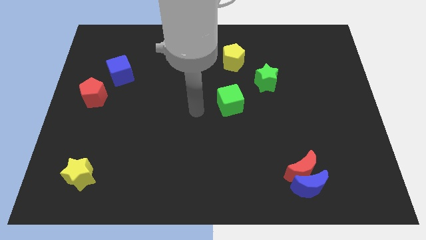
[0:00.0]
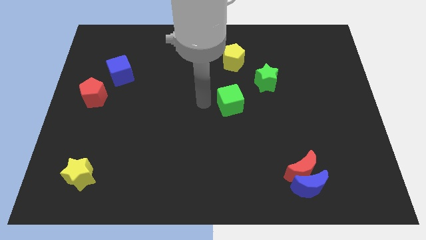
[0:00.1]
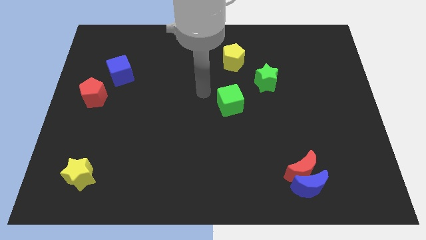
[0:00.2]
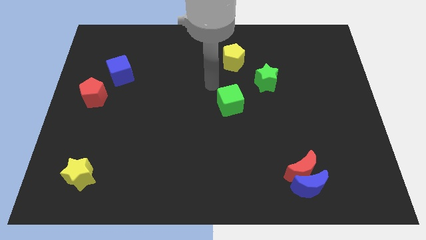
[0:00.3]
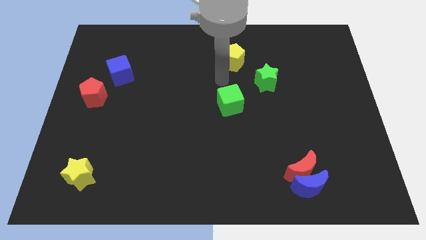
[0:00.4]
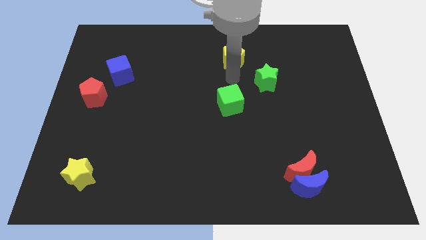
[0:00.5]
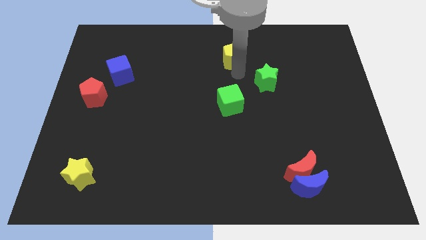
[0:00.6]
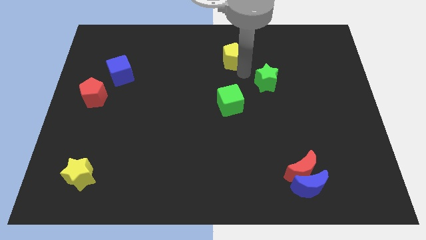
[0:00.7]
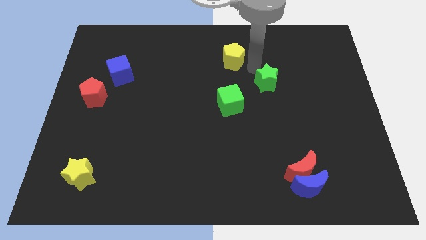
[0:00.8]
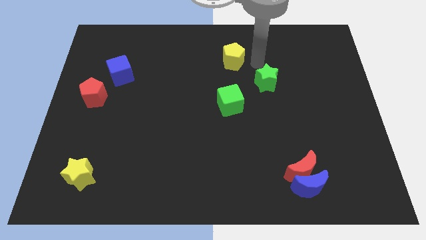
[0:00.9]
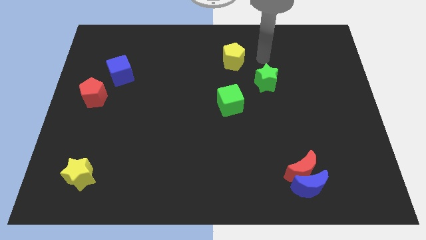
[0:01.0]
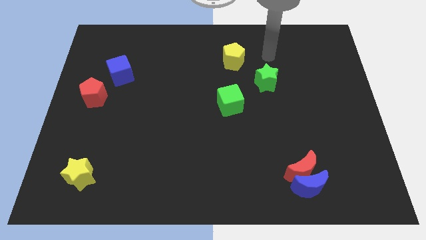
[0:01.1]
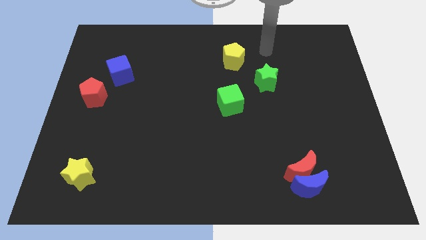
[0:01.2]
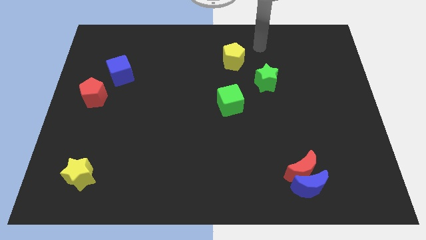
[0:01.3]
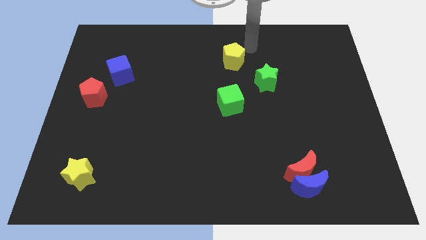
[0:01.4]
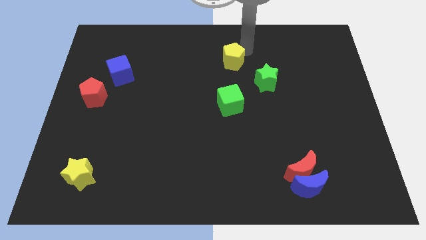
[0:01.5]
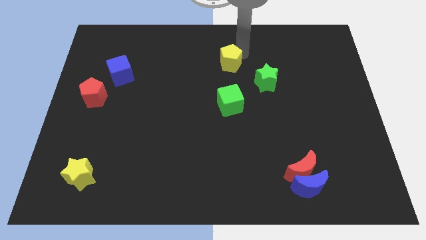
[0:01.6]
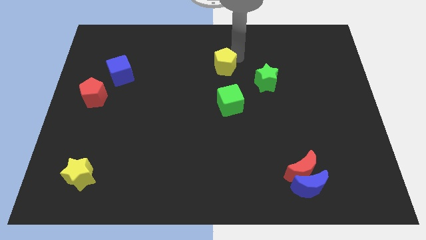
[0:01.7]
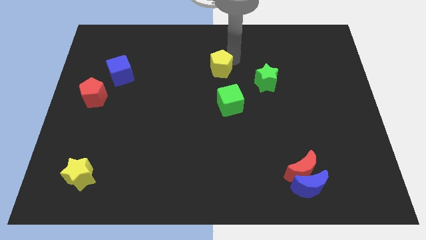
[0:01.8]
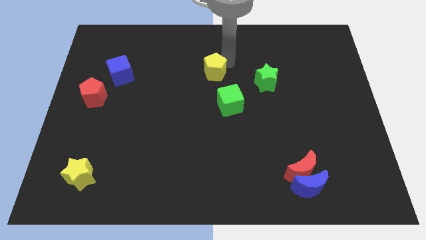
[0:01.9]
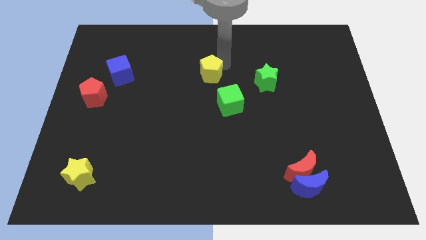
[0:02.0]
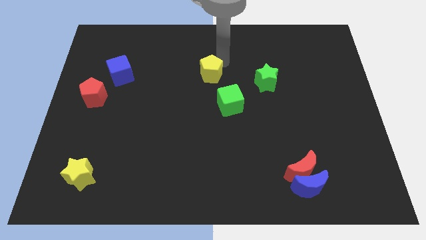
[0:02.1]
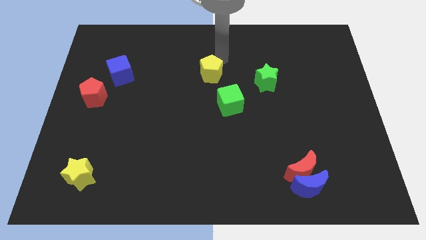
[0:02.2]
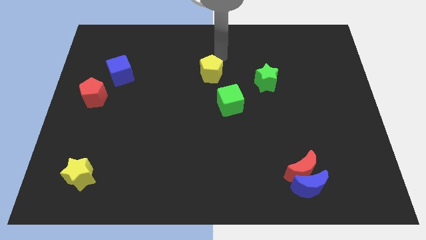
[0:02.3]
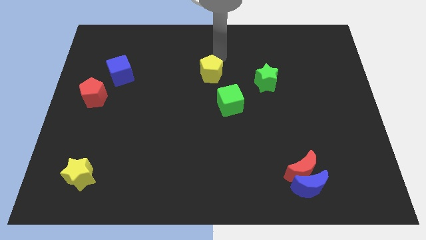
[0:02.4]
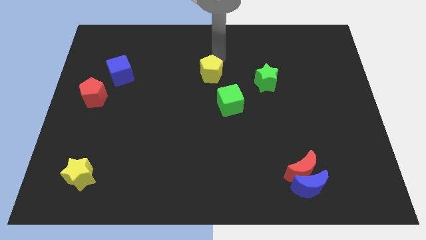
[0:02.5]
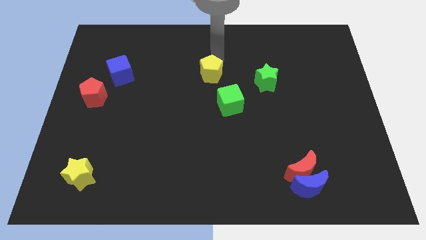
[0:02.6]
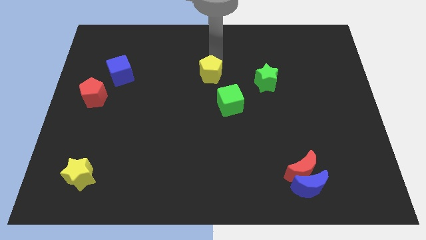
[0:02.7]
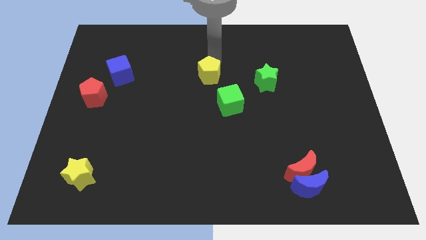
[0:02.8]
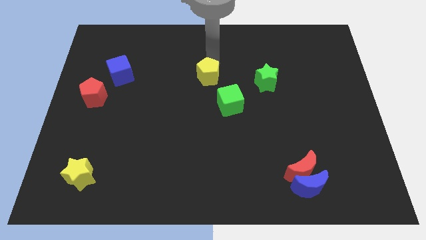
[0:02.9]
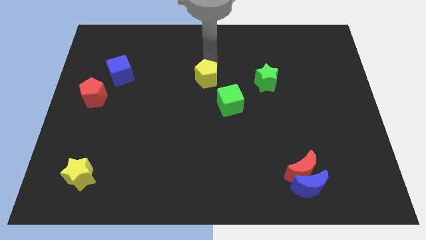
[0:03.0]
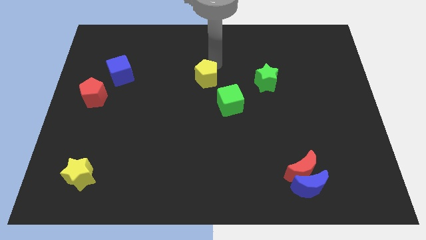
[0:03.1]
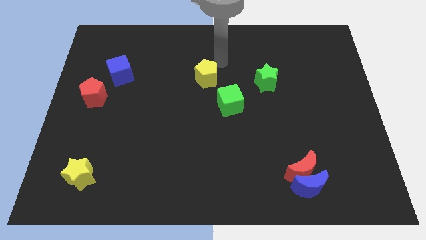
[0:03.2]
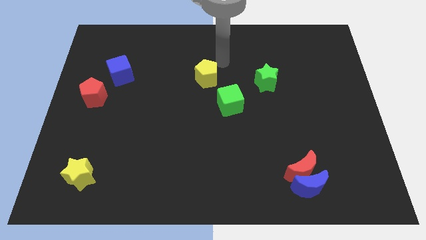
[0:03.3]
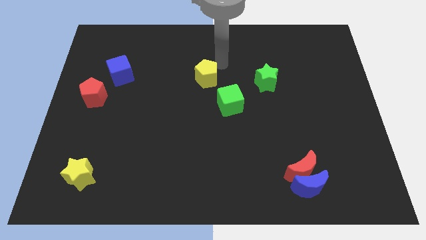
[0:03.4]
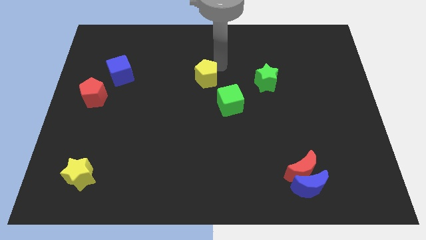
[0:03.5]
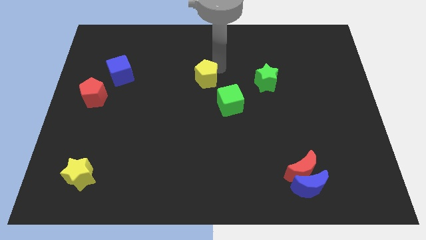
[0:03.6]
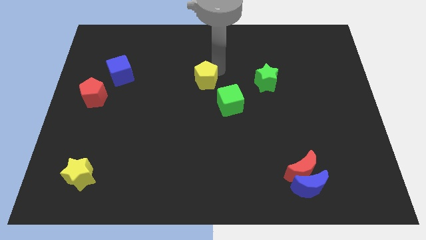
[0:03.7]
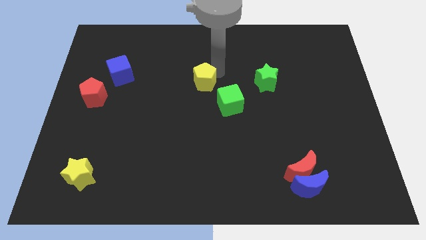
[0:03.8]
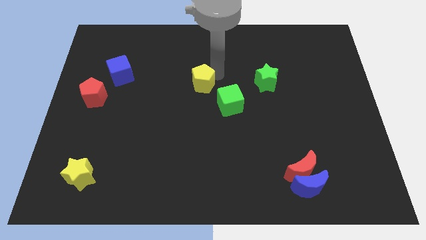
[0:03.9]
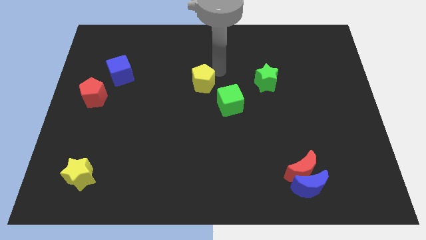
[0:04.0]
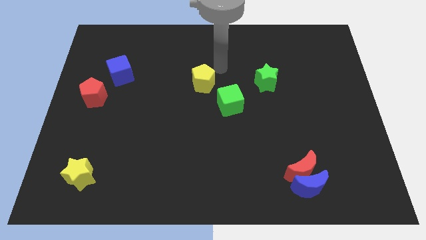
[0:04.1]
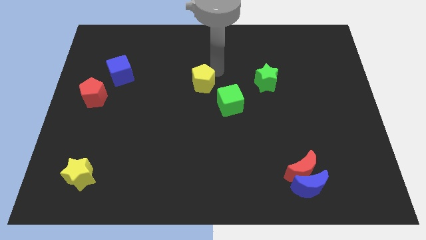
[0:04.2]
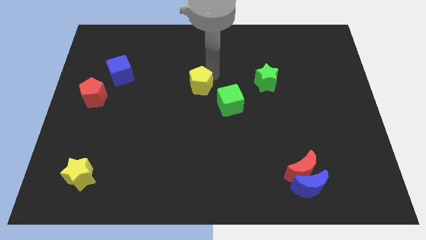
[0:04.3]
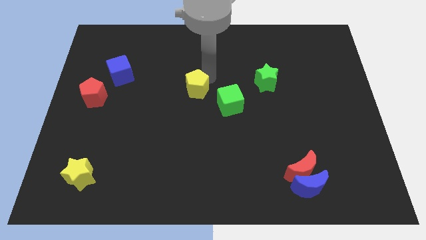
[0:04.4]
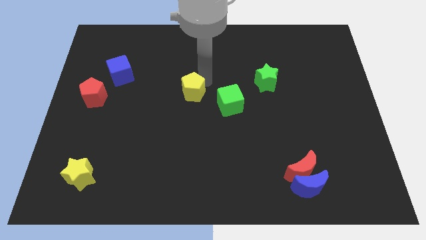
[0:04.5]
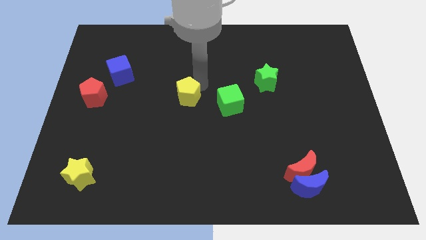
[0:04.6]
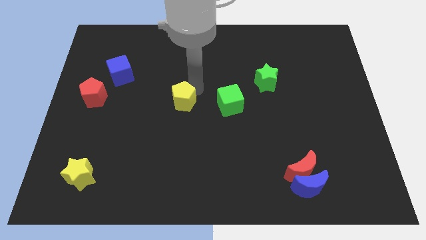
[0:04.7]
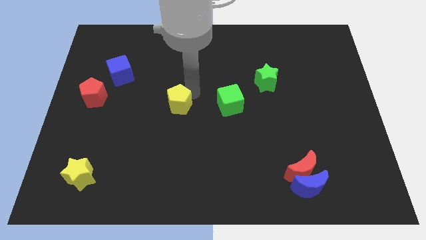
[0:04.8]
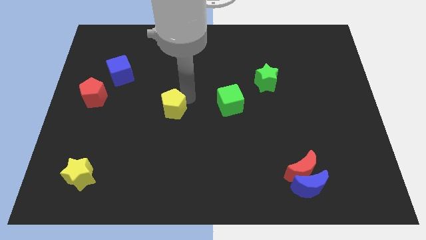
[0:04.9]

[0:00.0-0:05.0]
push the yellow pentagon down and to the left diagonally

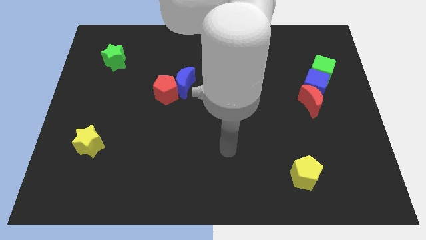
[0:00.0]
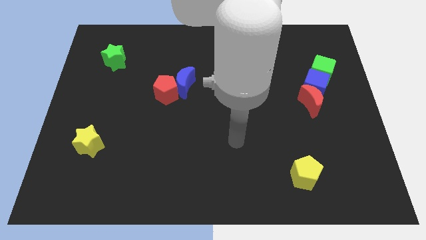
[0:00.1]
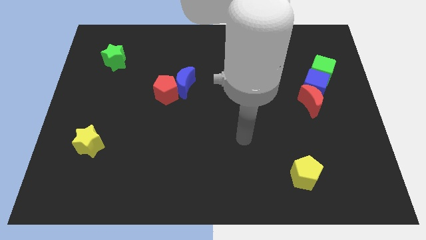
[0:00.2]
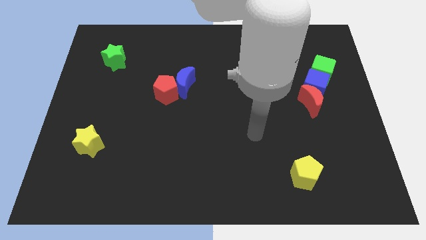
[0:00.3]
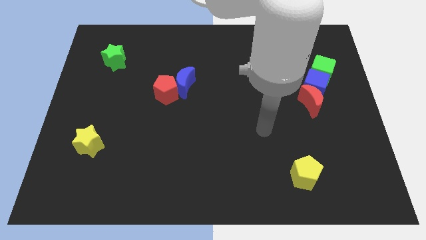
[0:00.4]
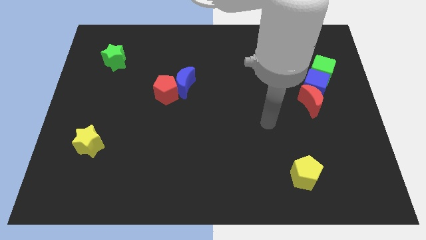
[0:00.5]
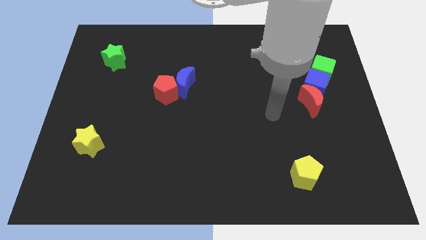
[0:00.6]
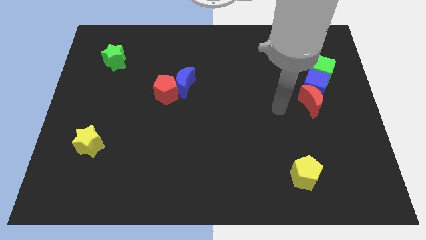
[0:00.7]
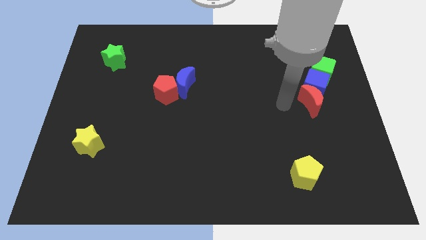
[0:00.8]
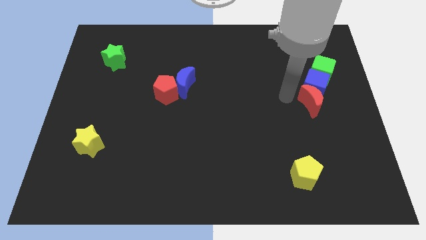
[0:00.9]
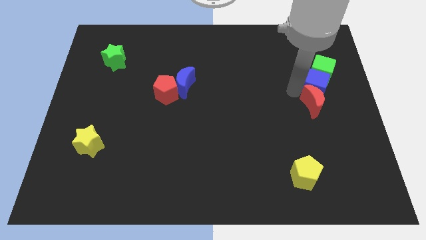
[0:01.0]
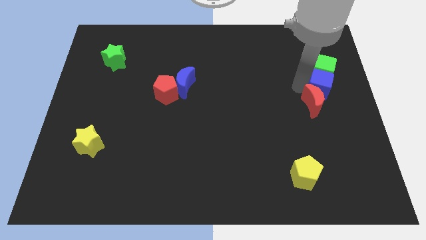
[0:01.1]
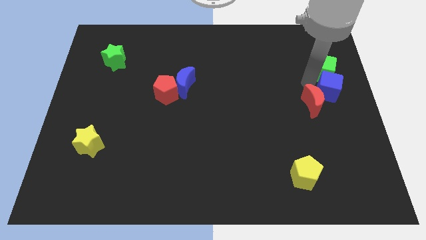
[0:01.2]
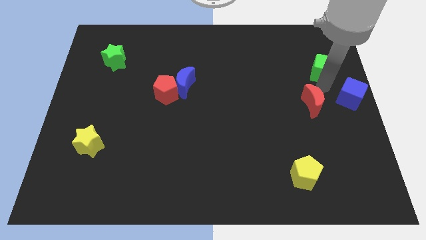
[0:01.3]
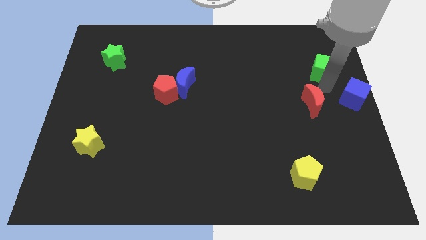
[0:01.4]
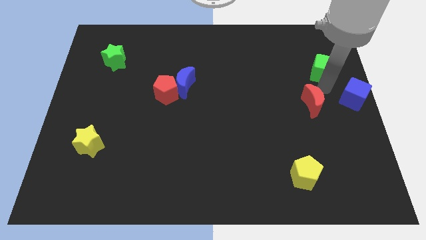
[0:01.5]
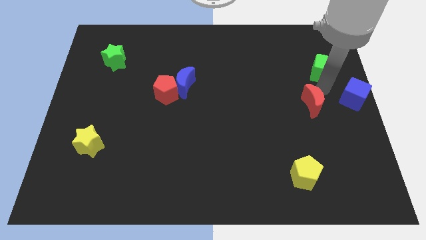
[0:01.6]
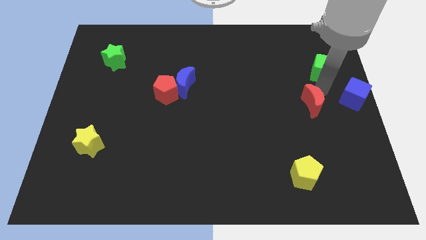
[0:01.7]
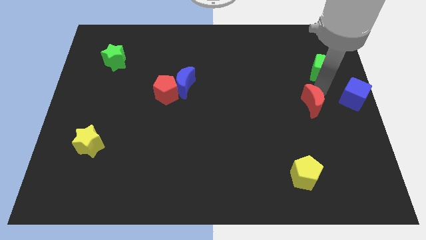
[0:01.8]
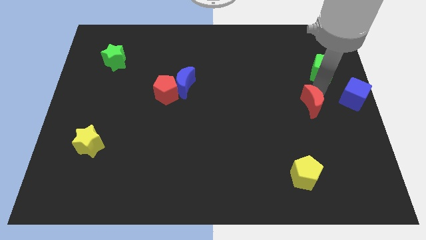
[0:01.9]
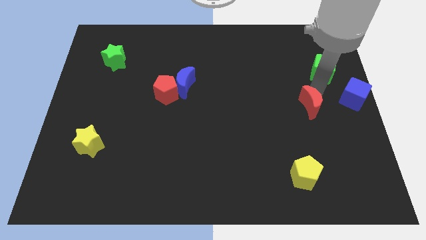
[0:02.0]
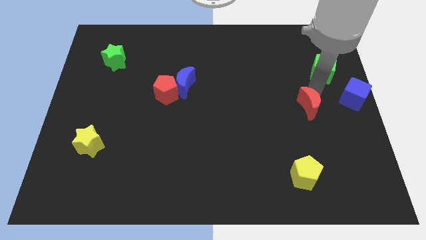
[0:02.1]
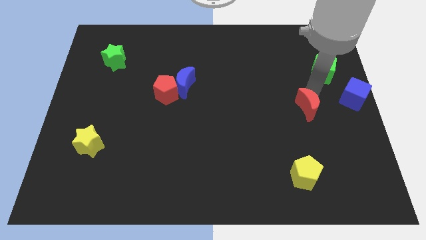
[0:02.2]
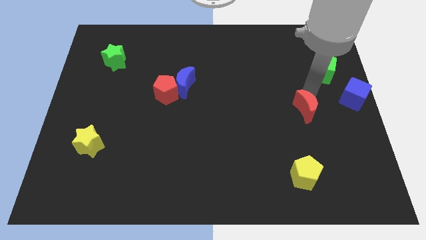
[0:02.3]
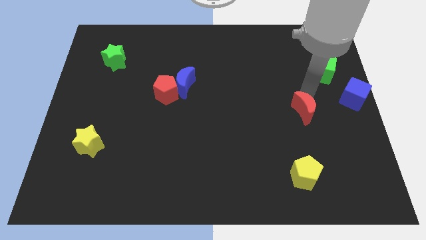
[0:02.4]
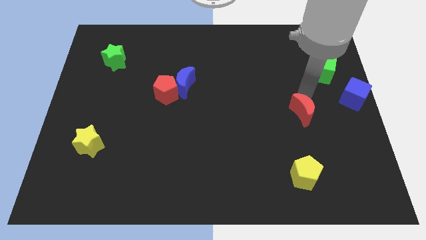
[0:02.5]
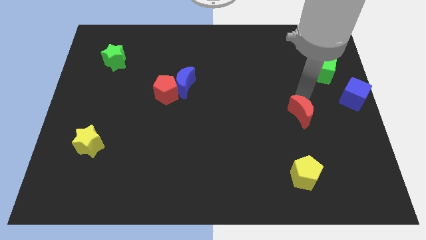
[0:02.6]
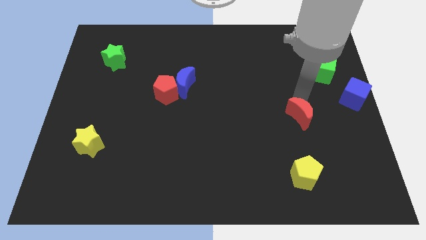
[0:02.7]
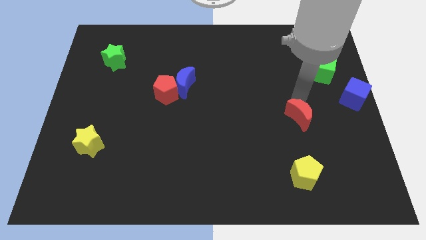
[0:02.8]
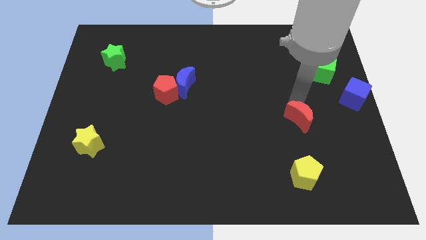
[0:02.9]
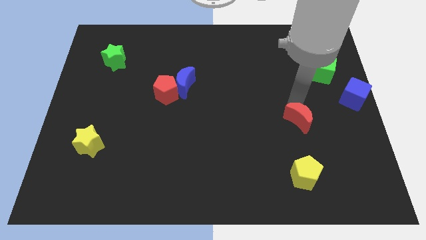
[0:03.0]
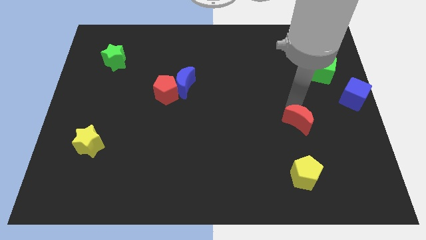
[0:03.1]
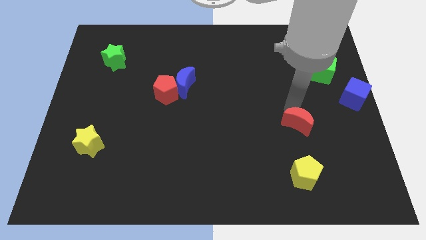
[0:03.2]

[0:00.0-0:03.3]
slightly slide the red moon downwards and then left
